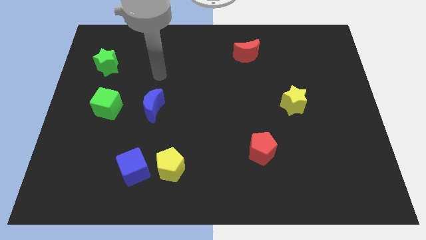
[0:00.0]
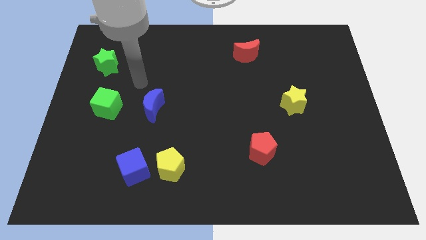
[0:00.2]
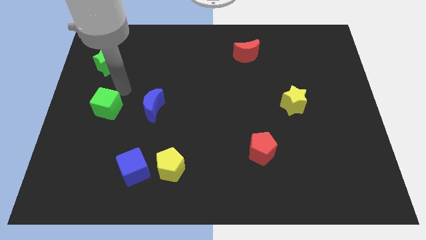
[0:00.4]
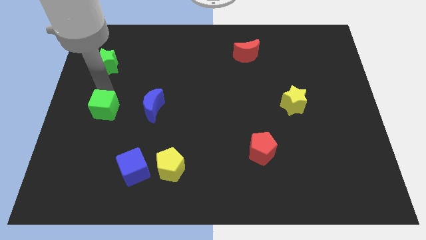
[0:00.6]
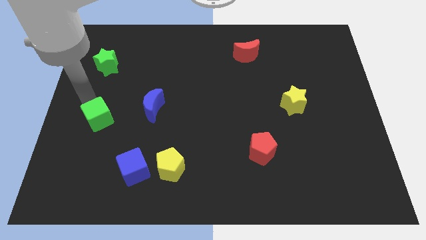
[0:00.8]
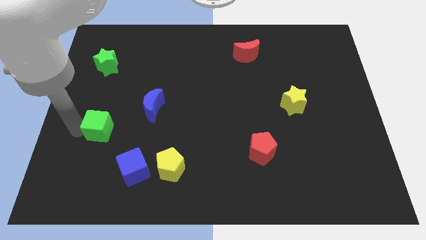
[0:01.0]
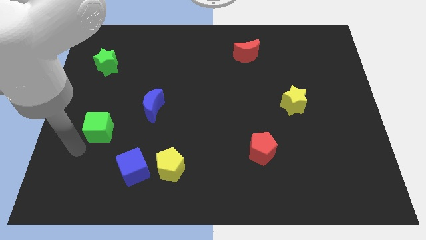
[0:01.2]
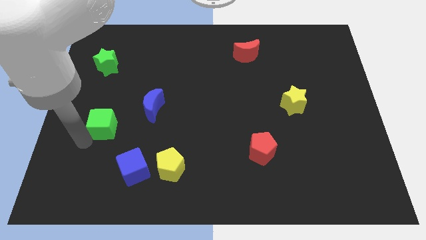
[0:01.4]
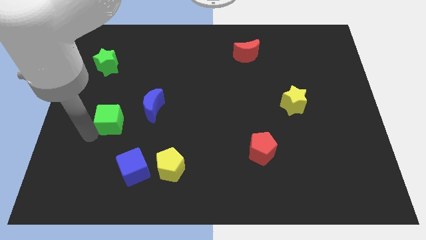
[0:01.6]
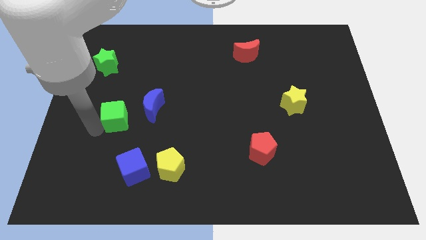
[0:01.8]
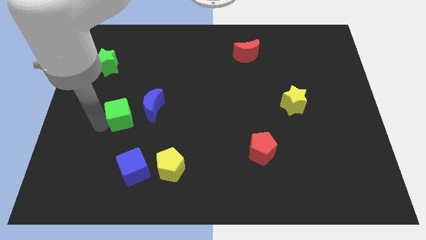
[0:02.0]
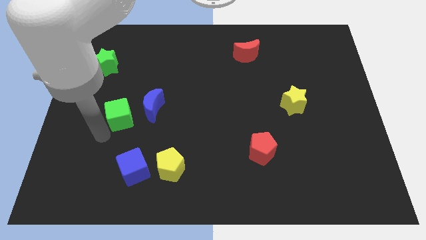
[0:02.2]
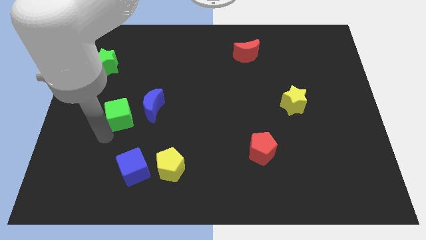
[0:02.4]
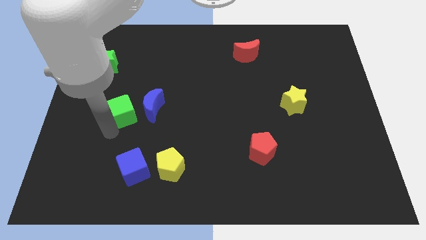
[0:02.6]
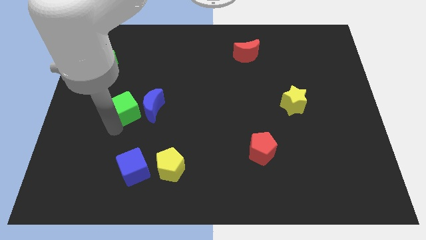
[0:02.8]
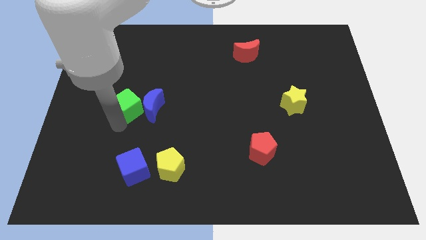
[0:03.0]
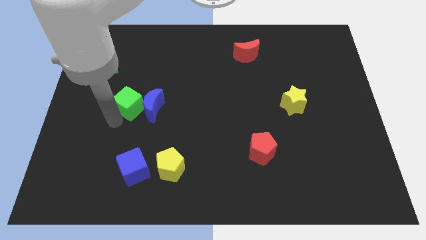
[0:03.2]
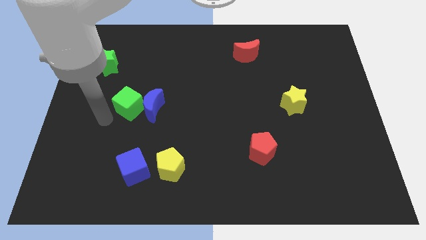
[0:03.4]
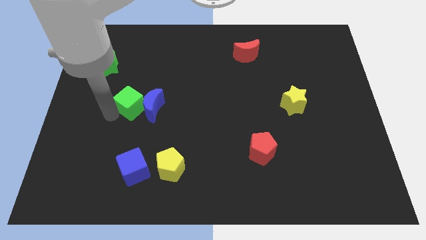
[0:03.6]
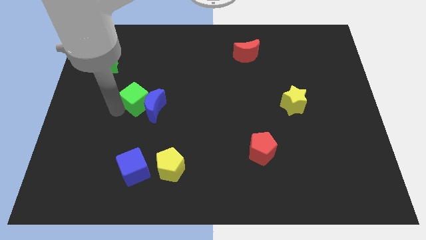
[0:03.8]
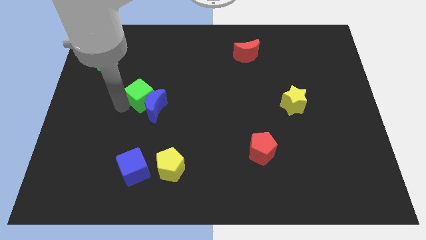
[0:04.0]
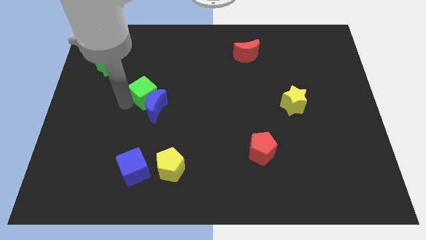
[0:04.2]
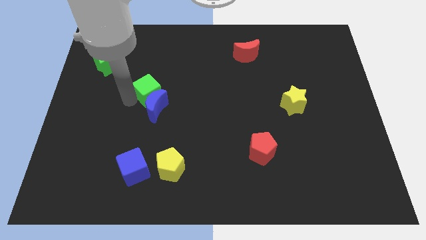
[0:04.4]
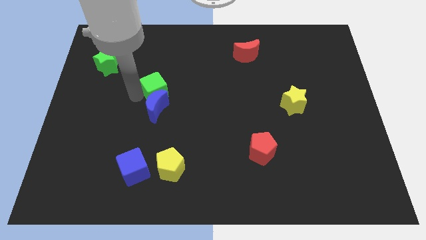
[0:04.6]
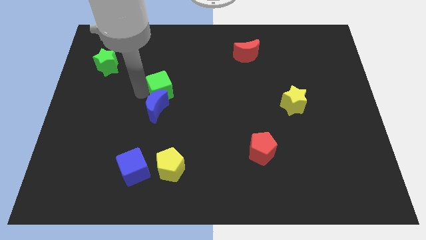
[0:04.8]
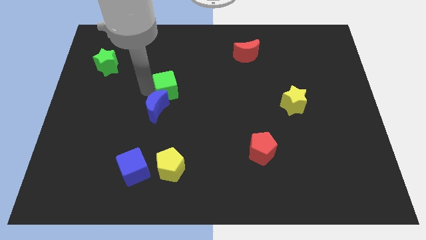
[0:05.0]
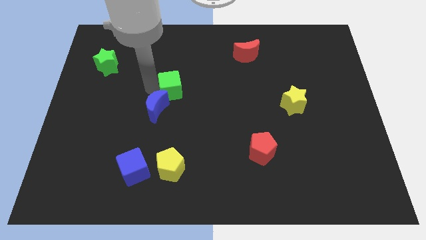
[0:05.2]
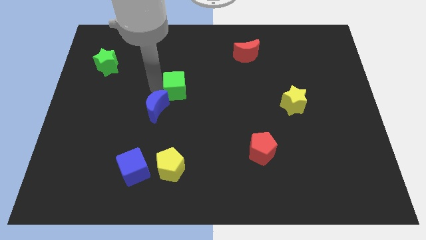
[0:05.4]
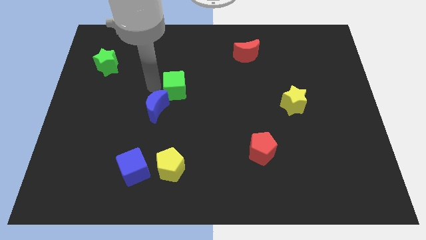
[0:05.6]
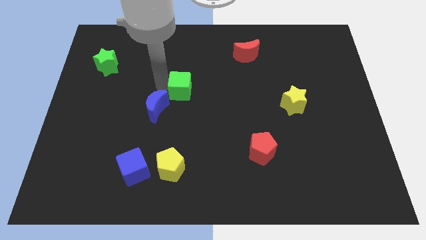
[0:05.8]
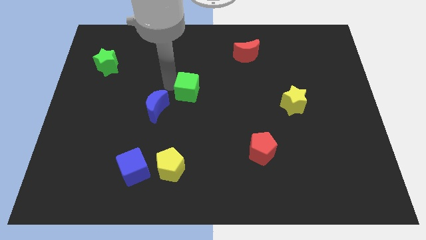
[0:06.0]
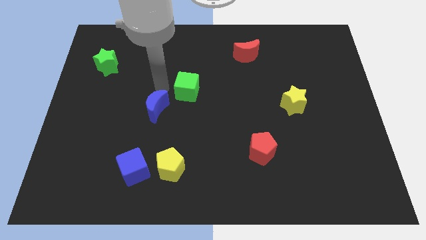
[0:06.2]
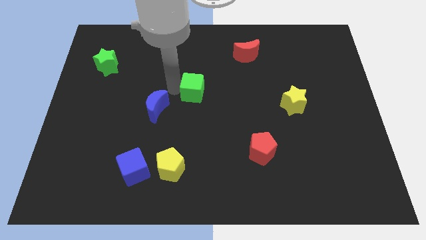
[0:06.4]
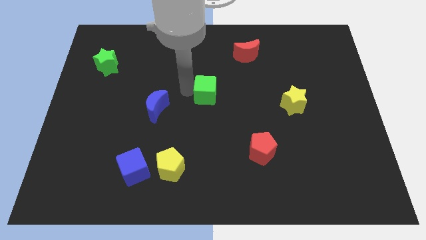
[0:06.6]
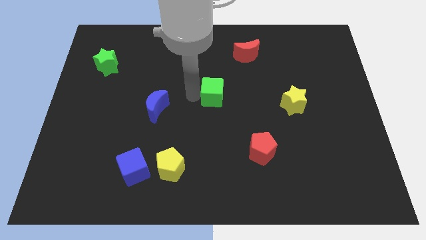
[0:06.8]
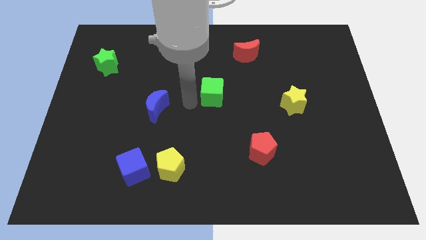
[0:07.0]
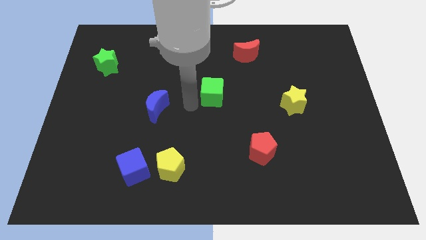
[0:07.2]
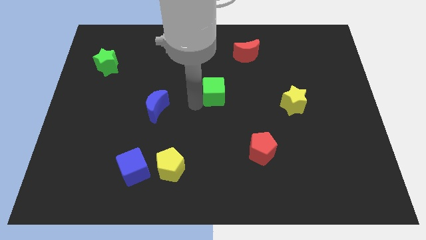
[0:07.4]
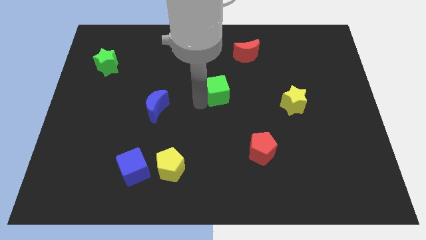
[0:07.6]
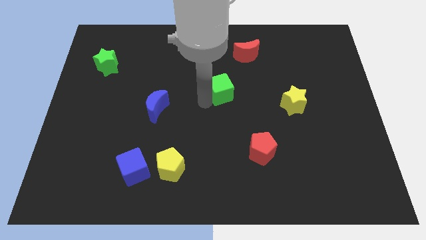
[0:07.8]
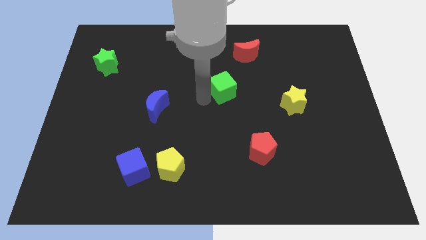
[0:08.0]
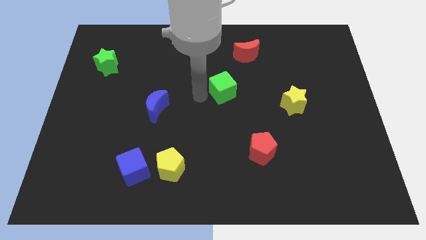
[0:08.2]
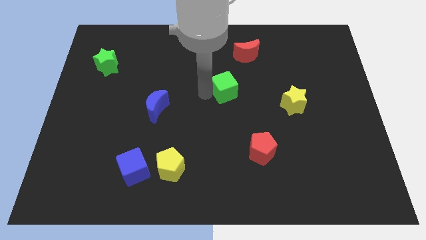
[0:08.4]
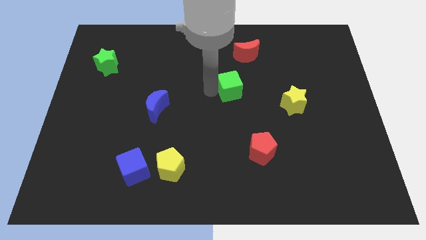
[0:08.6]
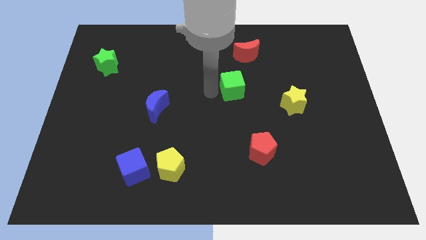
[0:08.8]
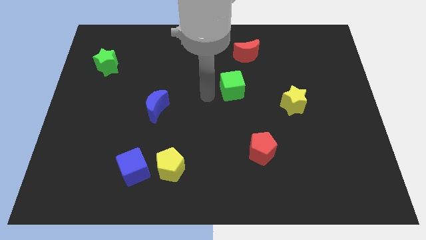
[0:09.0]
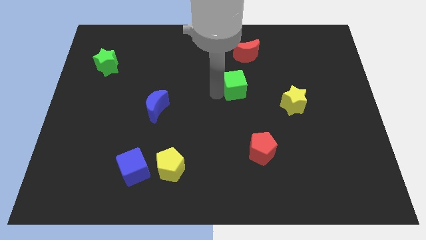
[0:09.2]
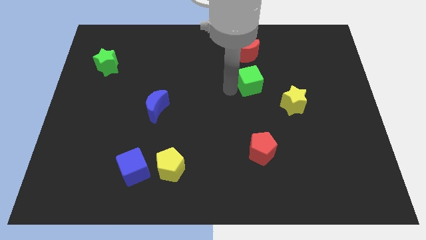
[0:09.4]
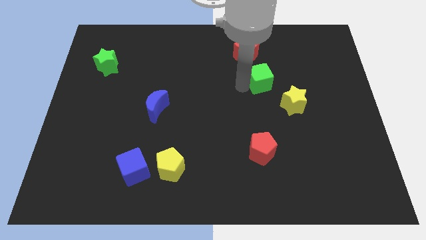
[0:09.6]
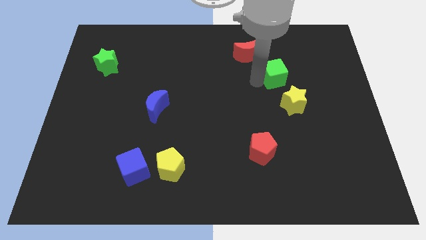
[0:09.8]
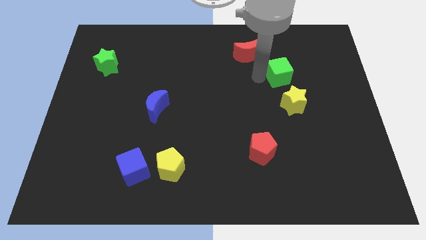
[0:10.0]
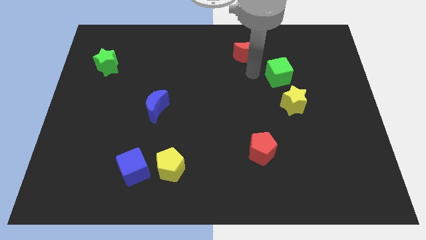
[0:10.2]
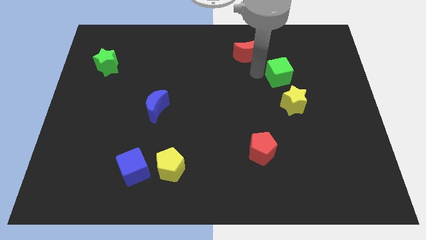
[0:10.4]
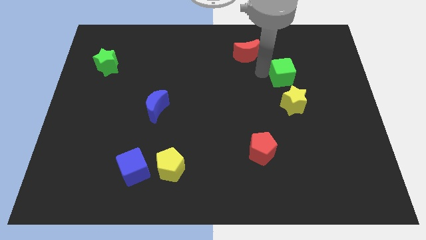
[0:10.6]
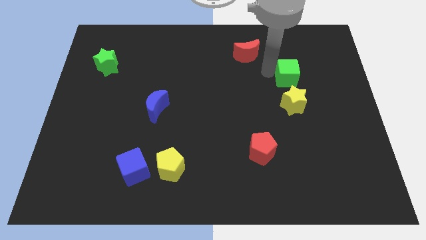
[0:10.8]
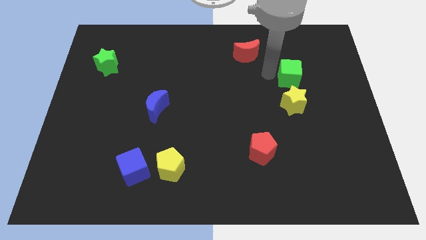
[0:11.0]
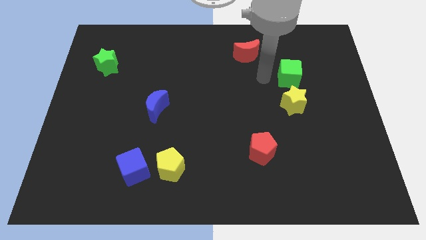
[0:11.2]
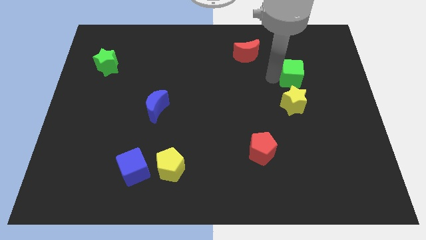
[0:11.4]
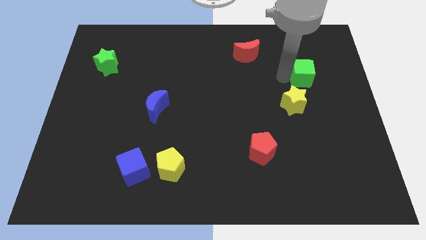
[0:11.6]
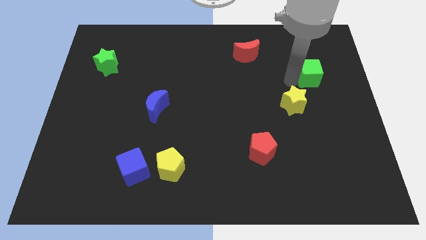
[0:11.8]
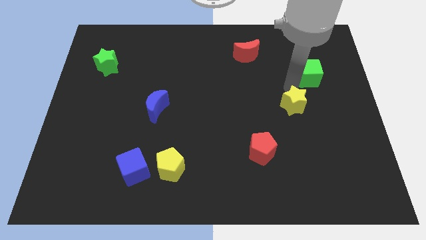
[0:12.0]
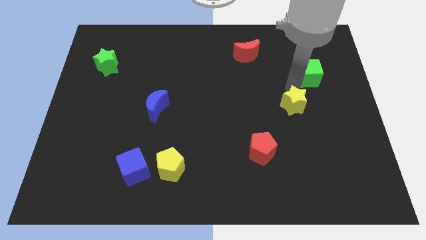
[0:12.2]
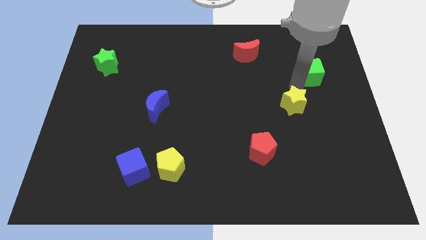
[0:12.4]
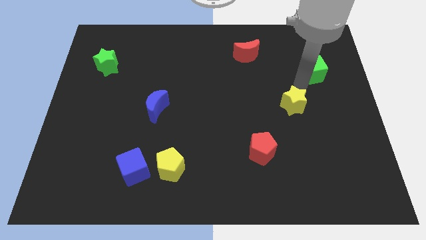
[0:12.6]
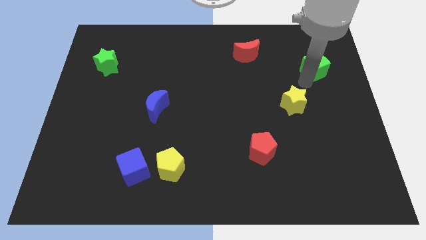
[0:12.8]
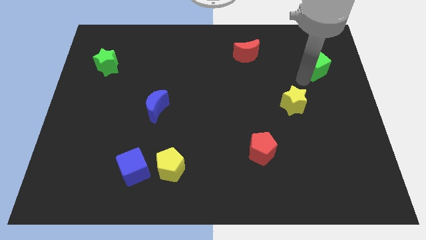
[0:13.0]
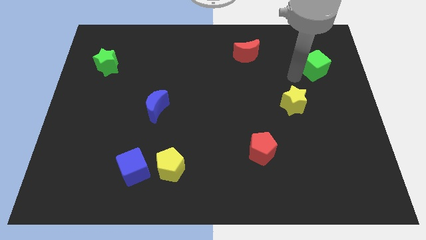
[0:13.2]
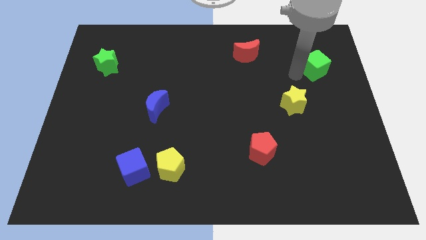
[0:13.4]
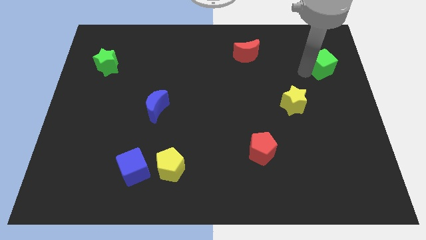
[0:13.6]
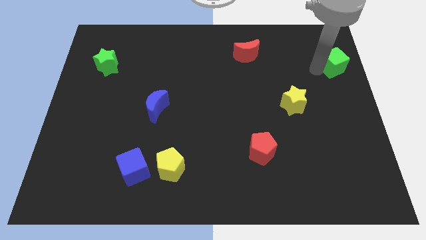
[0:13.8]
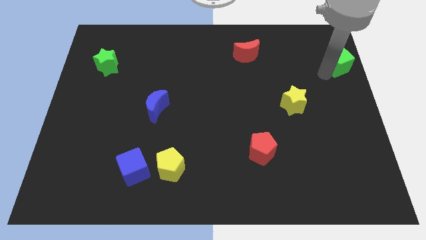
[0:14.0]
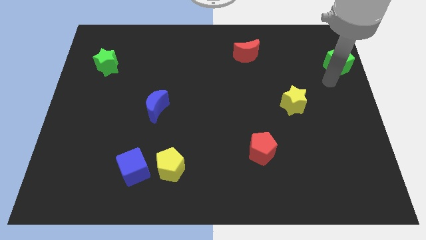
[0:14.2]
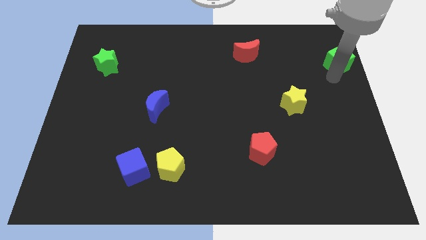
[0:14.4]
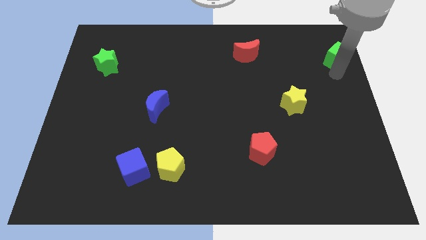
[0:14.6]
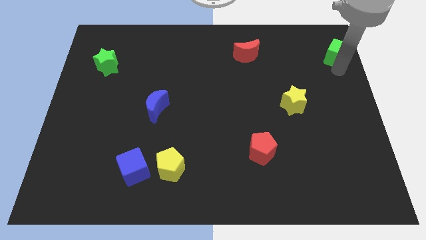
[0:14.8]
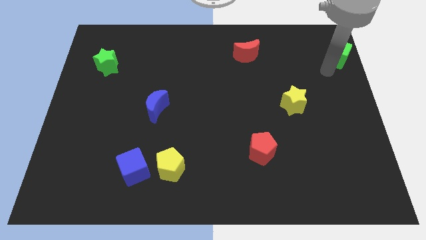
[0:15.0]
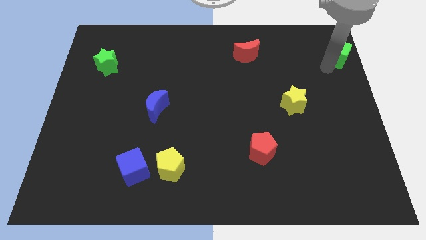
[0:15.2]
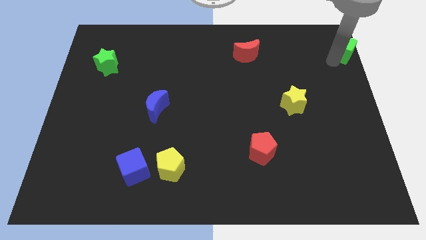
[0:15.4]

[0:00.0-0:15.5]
put the green cube to the upper right corner
